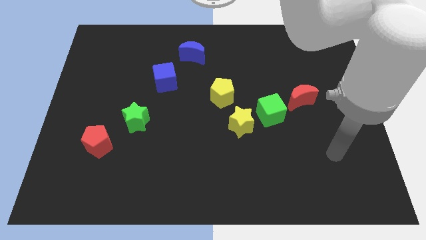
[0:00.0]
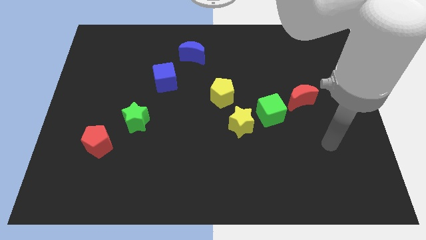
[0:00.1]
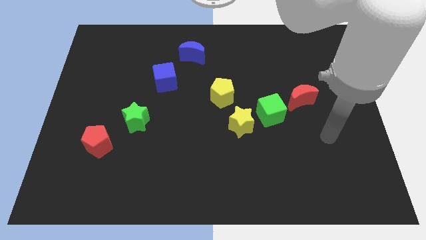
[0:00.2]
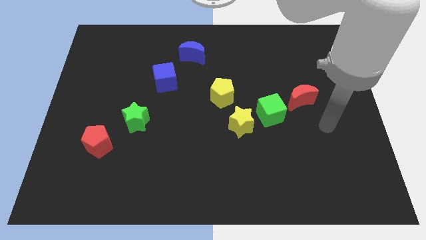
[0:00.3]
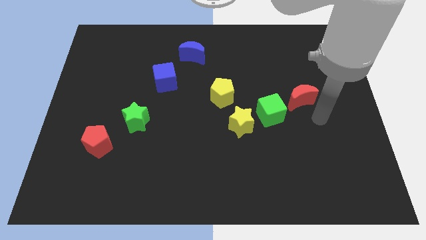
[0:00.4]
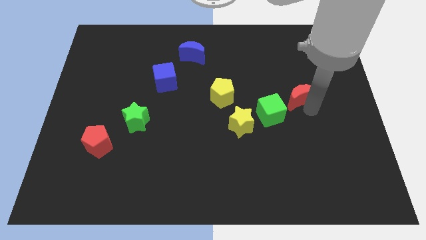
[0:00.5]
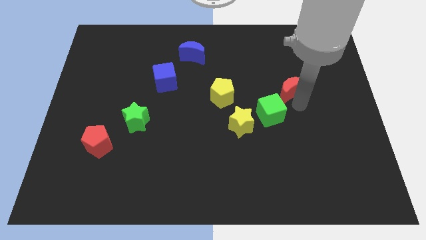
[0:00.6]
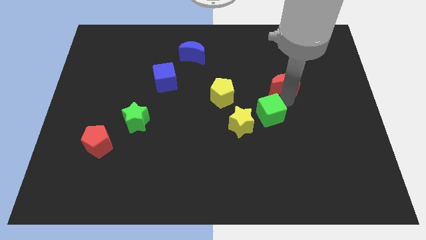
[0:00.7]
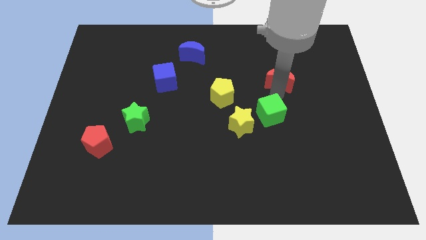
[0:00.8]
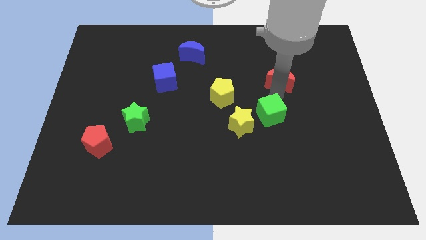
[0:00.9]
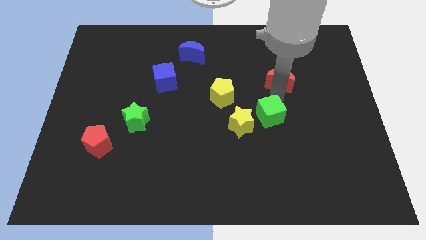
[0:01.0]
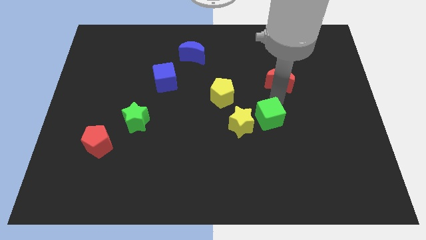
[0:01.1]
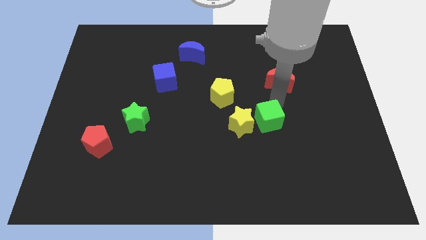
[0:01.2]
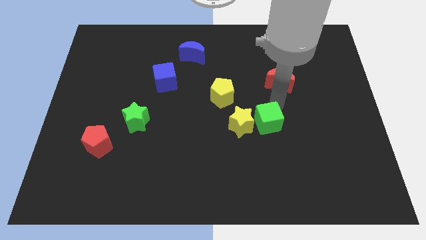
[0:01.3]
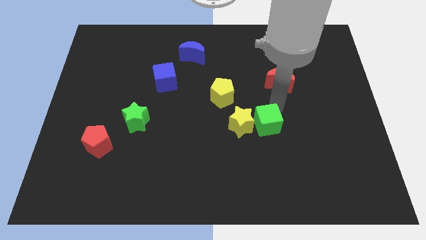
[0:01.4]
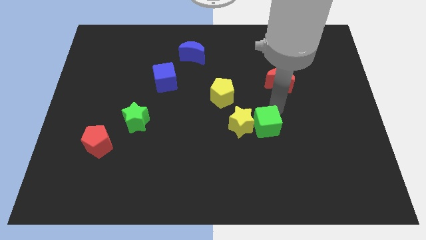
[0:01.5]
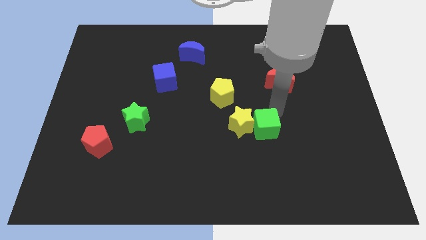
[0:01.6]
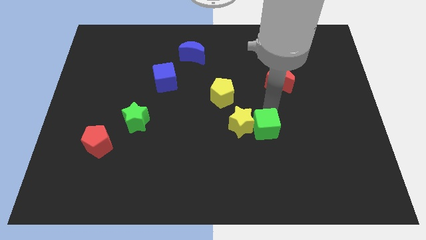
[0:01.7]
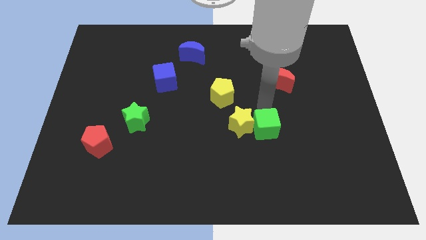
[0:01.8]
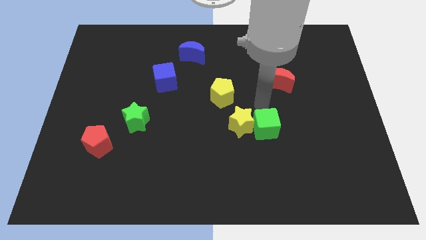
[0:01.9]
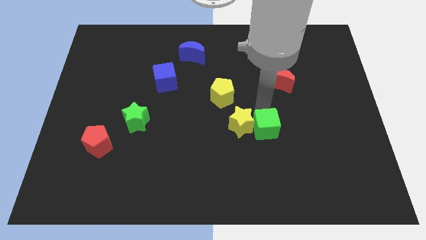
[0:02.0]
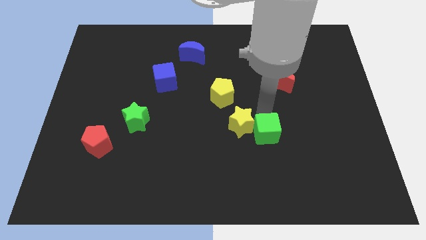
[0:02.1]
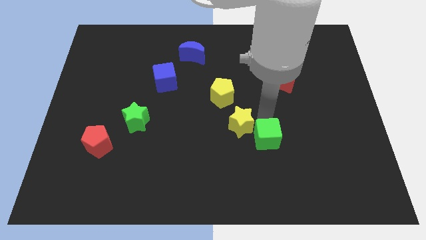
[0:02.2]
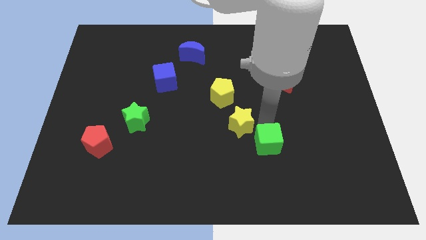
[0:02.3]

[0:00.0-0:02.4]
move the green cube away from the yellow star and red moon

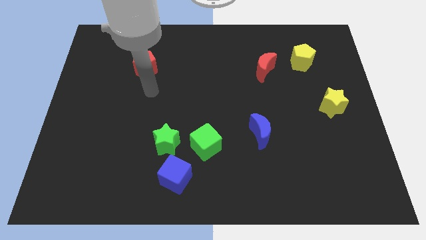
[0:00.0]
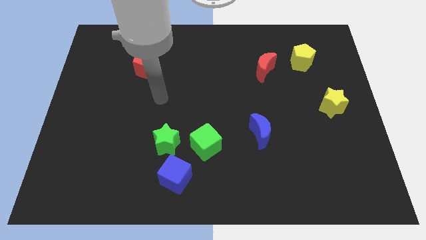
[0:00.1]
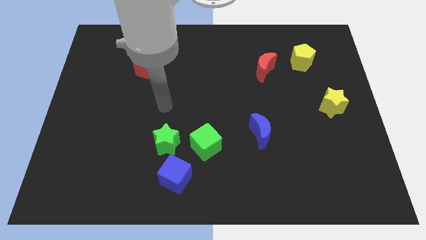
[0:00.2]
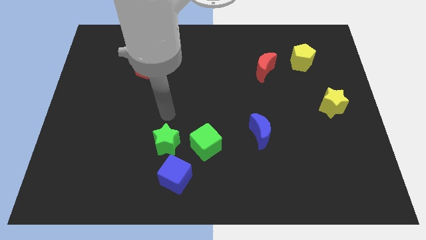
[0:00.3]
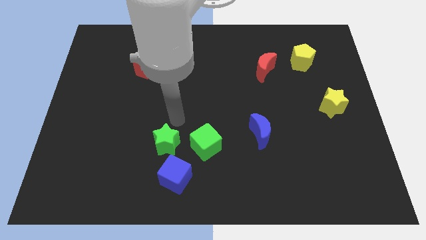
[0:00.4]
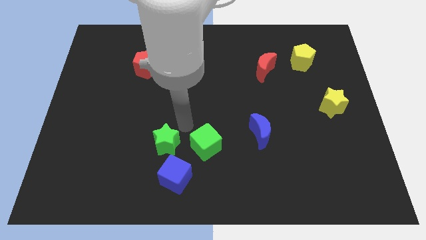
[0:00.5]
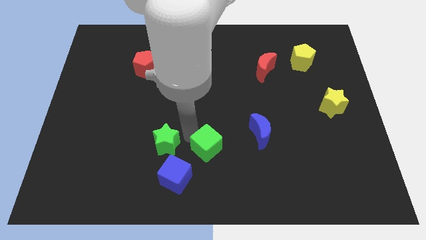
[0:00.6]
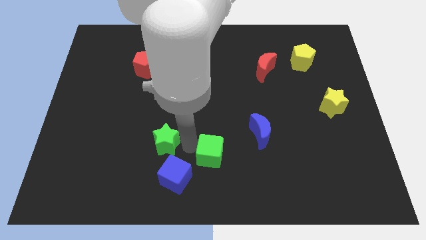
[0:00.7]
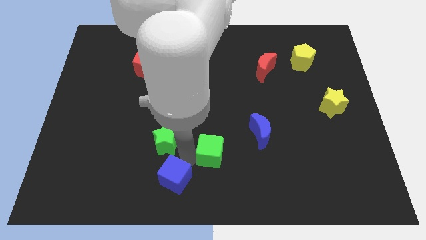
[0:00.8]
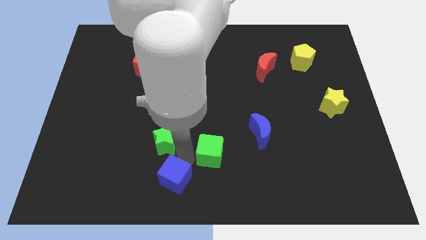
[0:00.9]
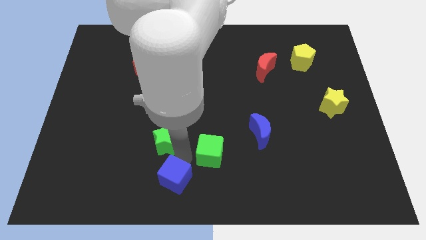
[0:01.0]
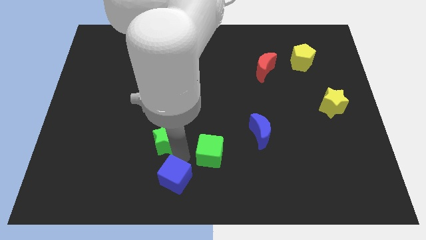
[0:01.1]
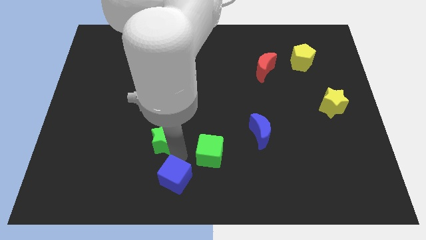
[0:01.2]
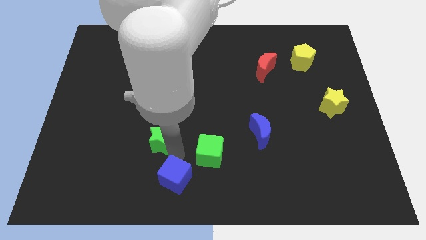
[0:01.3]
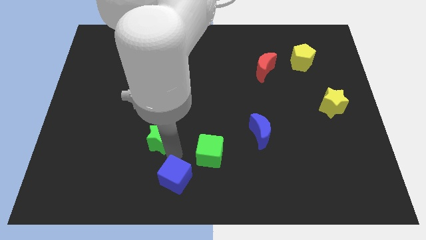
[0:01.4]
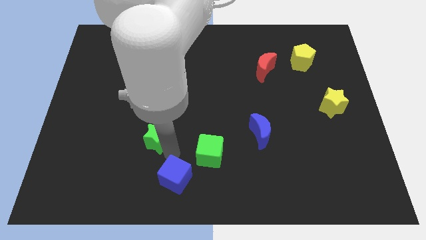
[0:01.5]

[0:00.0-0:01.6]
separate the green star from the blue cube and green cube

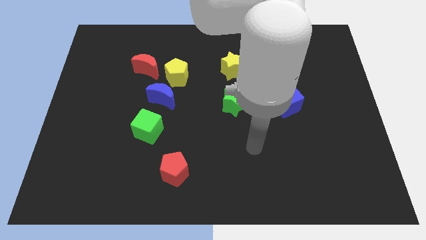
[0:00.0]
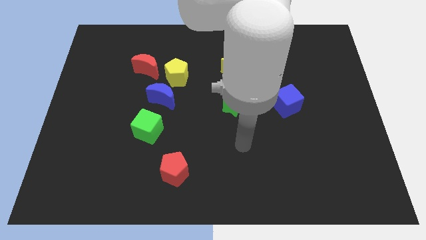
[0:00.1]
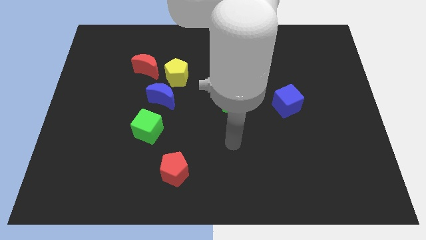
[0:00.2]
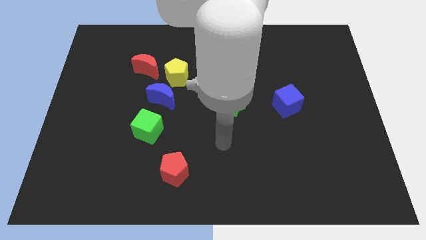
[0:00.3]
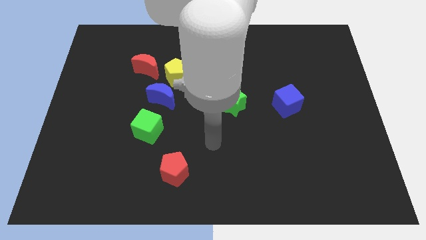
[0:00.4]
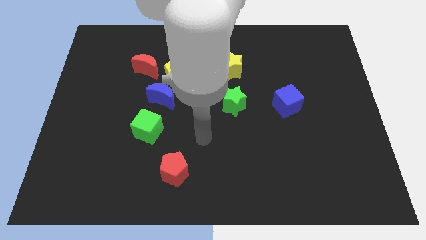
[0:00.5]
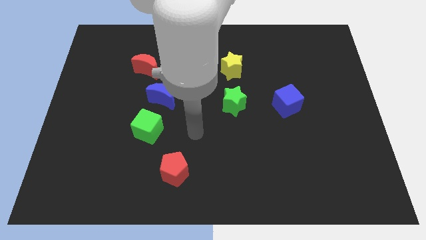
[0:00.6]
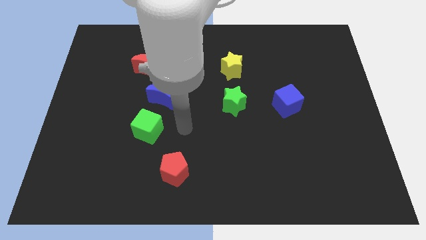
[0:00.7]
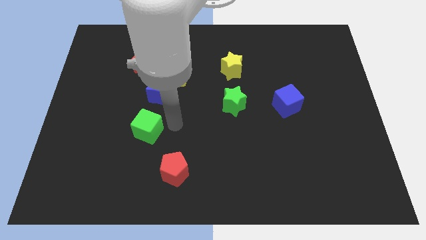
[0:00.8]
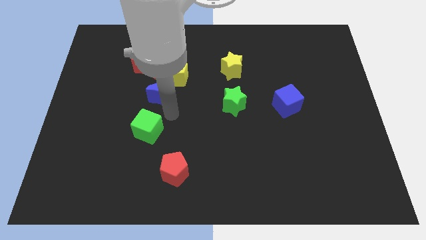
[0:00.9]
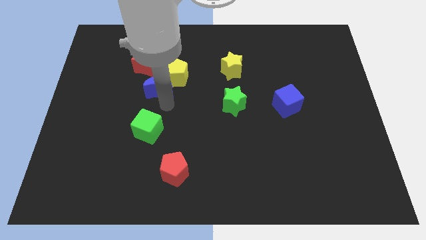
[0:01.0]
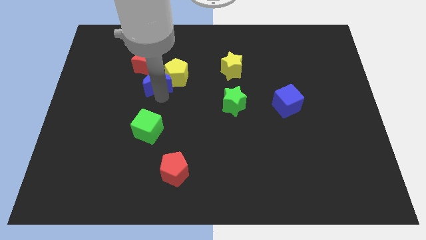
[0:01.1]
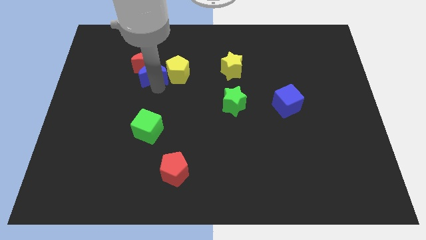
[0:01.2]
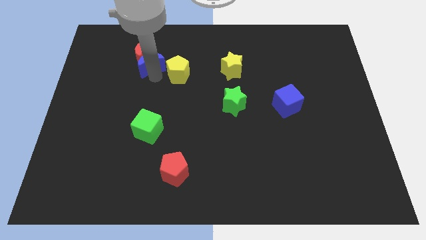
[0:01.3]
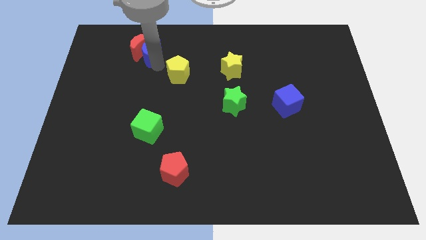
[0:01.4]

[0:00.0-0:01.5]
pull the yellow pentagon apart from the blue moon and red moon

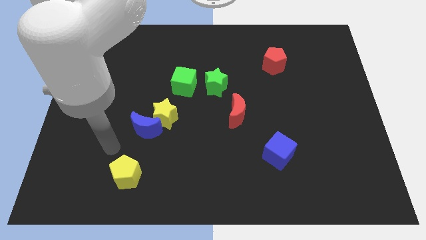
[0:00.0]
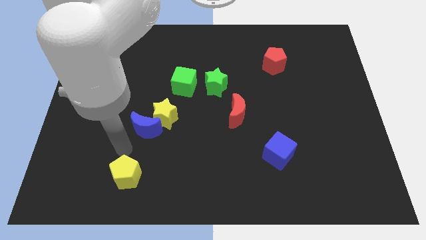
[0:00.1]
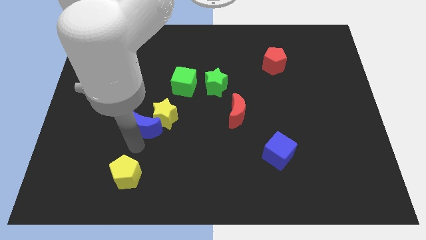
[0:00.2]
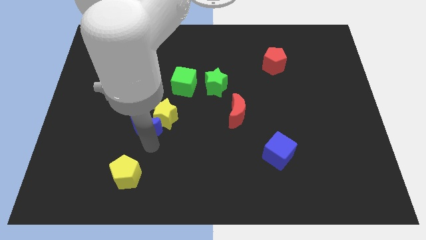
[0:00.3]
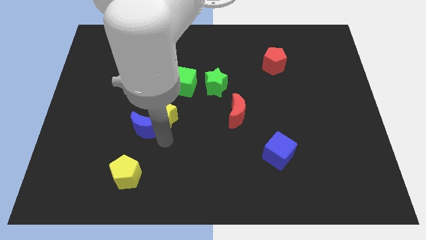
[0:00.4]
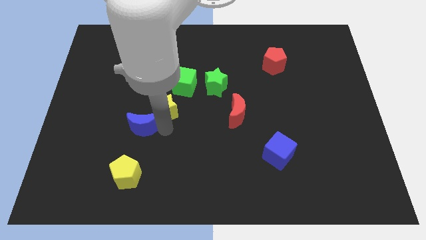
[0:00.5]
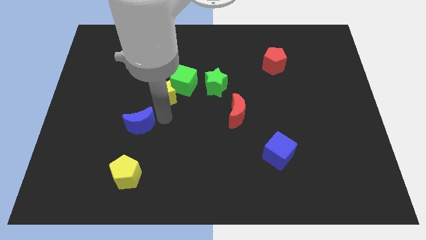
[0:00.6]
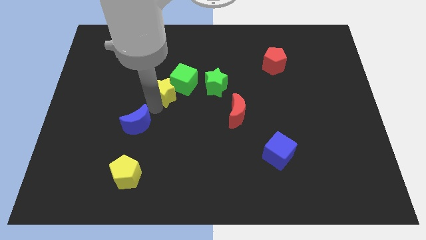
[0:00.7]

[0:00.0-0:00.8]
separate the blue moon from the yellow star

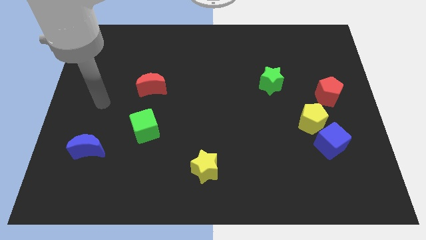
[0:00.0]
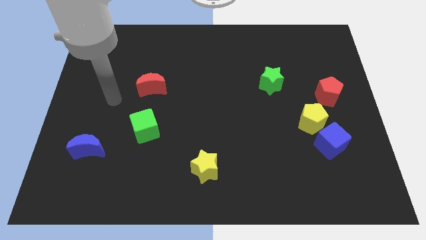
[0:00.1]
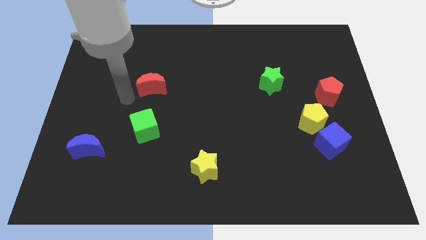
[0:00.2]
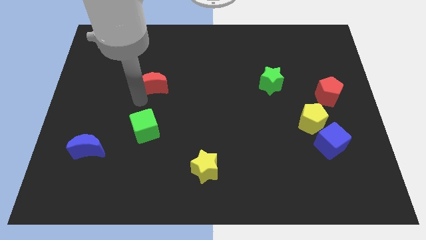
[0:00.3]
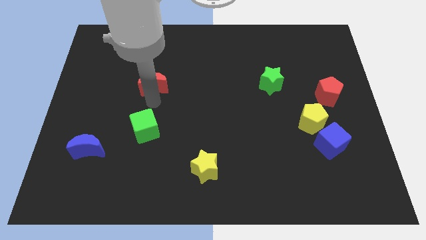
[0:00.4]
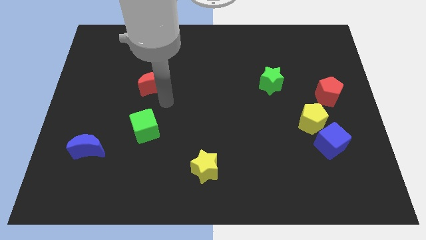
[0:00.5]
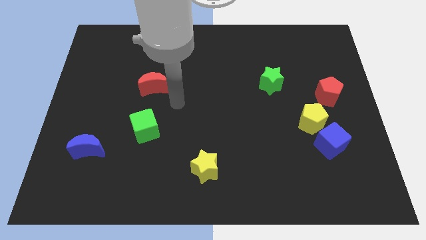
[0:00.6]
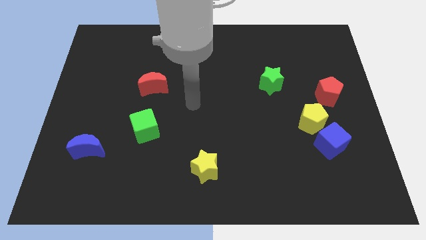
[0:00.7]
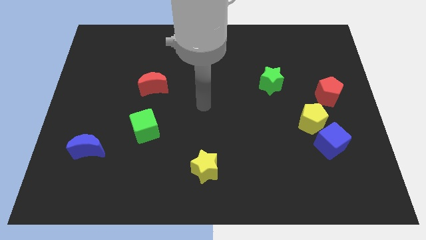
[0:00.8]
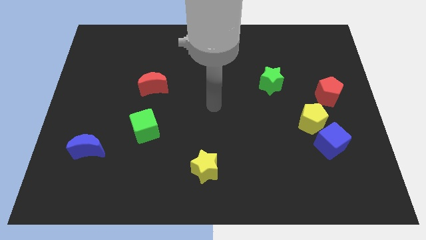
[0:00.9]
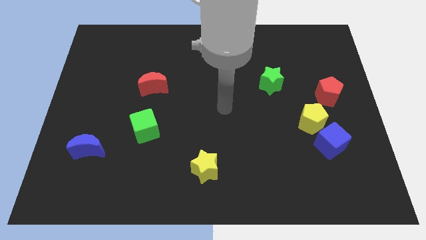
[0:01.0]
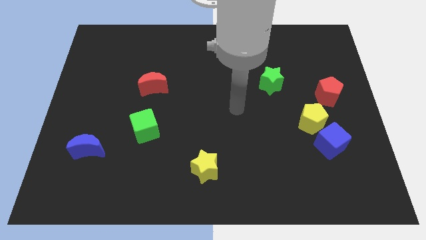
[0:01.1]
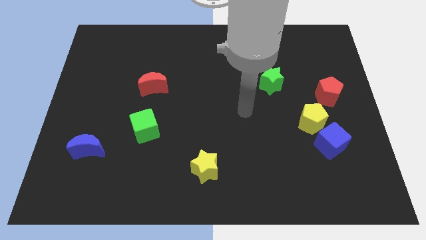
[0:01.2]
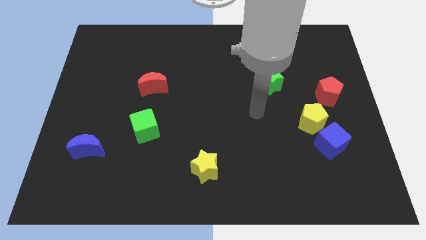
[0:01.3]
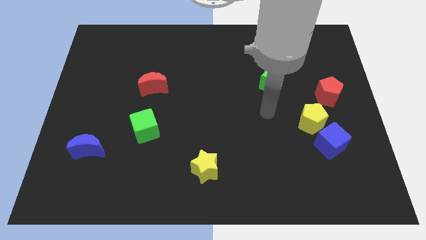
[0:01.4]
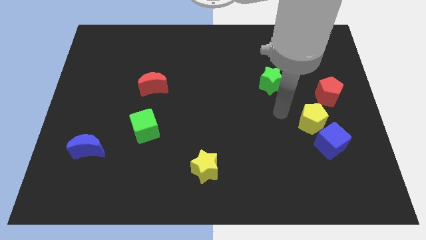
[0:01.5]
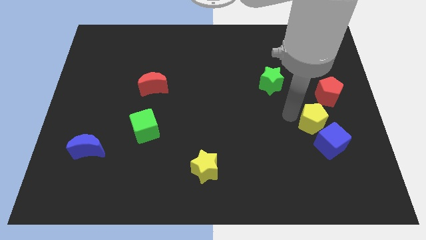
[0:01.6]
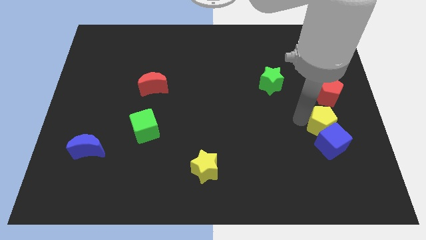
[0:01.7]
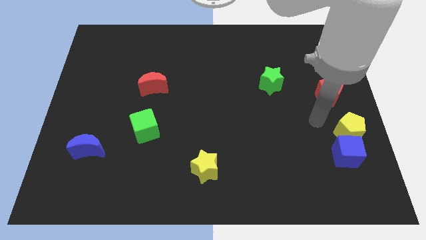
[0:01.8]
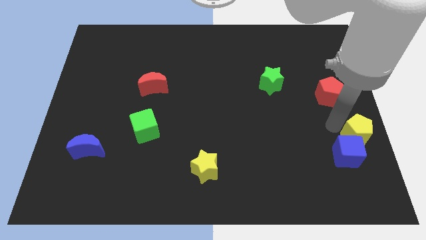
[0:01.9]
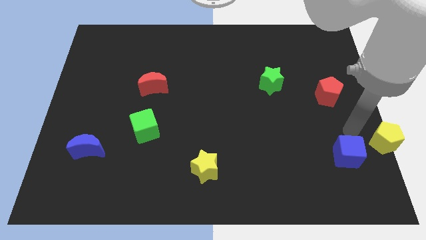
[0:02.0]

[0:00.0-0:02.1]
pull the blue cube apart from the yellow pentagon

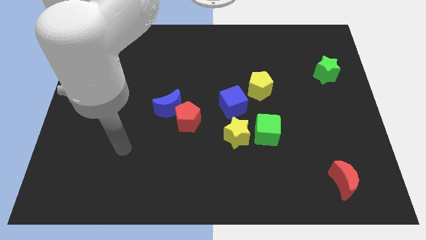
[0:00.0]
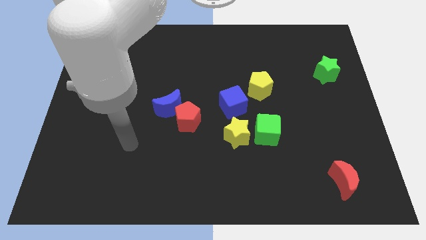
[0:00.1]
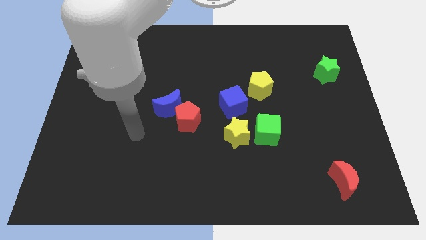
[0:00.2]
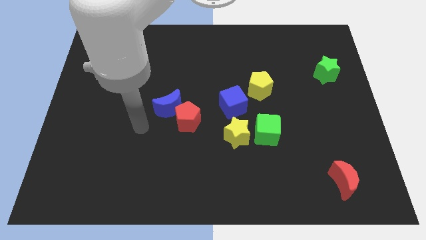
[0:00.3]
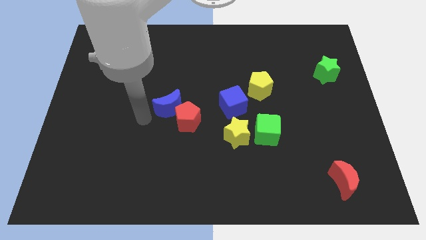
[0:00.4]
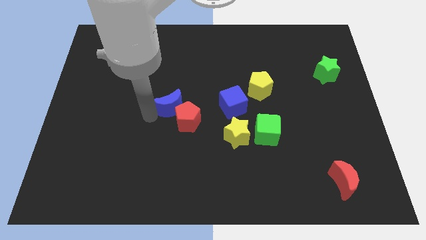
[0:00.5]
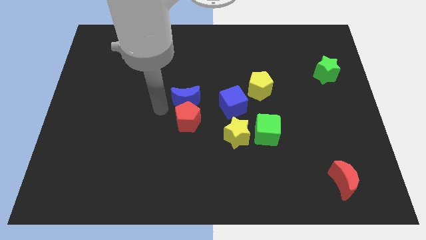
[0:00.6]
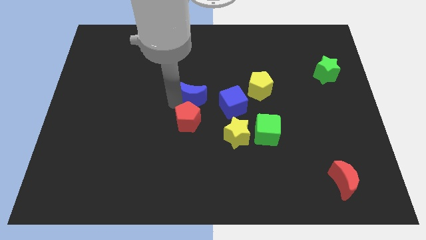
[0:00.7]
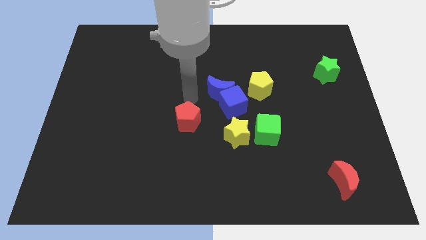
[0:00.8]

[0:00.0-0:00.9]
move the red pentagon away from the blue moon
